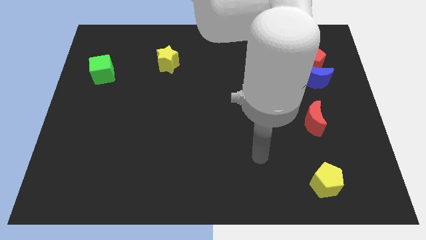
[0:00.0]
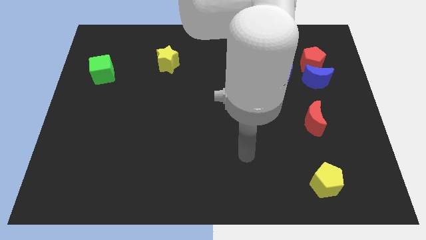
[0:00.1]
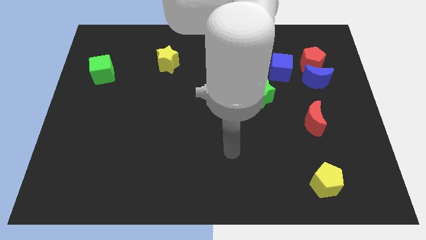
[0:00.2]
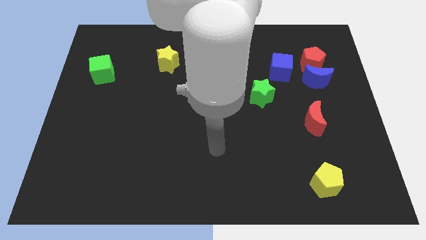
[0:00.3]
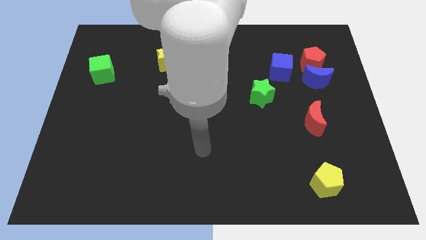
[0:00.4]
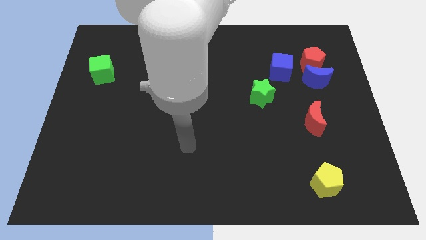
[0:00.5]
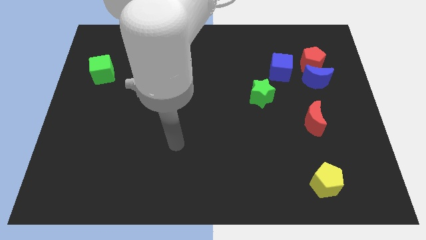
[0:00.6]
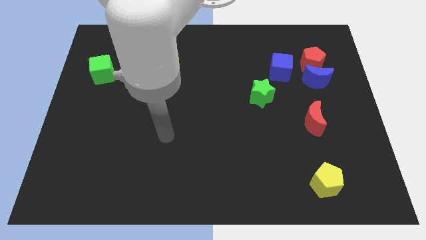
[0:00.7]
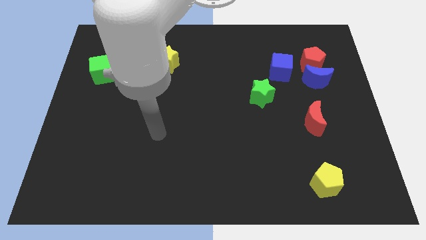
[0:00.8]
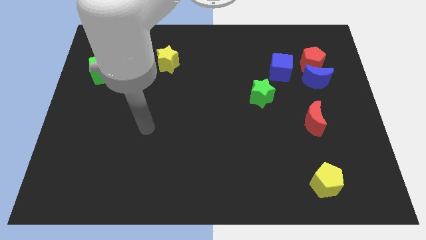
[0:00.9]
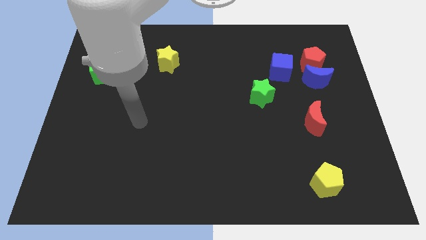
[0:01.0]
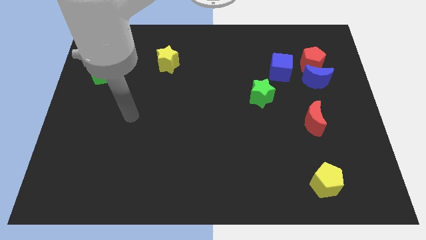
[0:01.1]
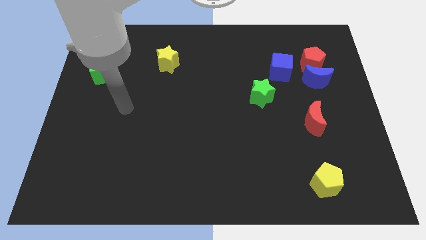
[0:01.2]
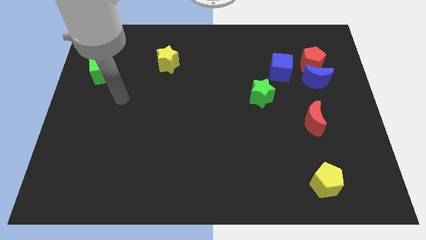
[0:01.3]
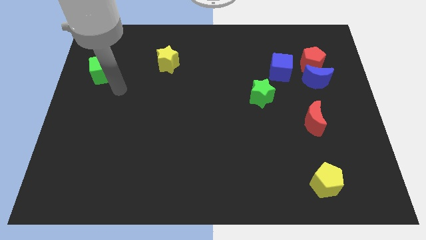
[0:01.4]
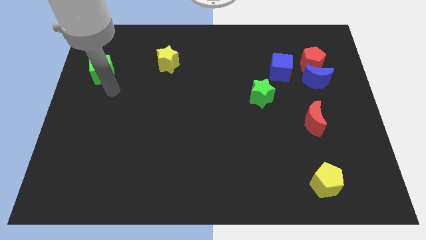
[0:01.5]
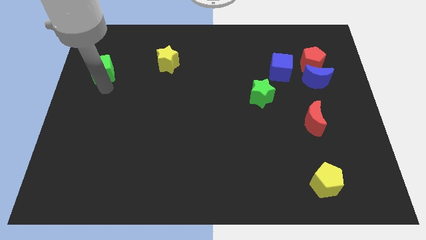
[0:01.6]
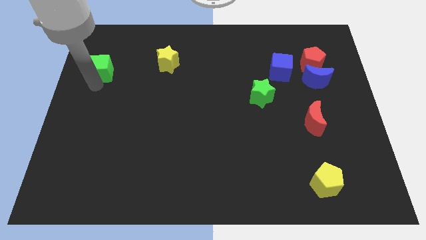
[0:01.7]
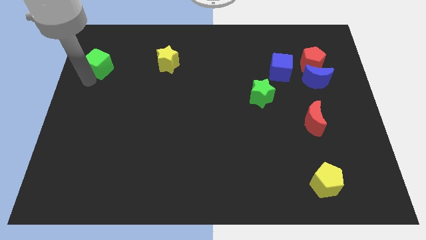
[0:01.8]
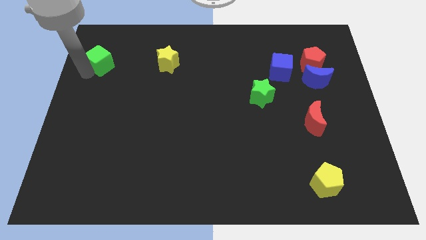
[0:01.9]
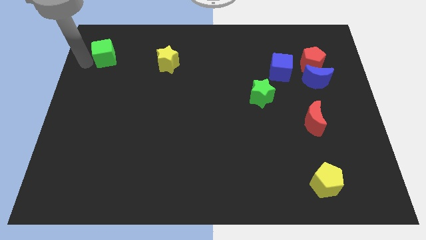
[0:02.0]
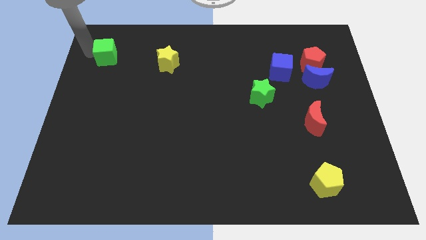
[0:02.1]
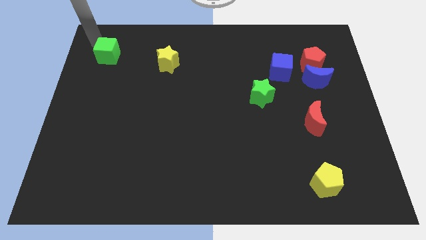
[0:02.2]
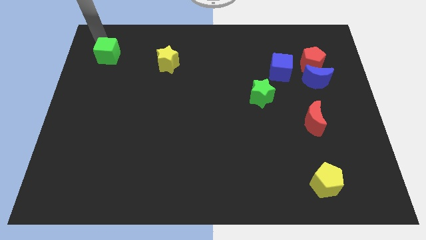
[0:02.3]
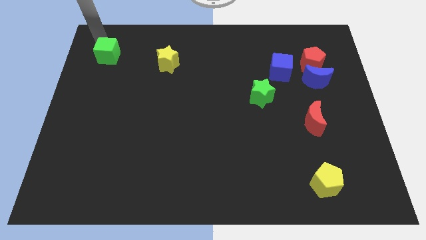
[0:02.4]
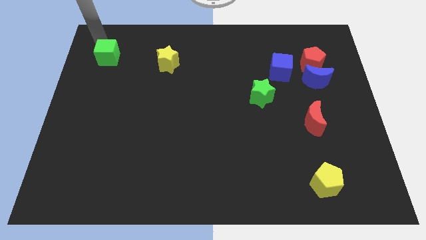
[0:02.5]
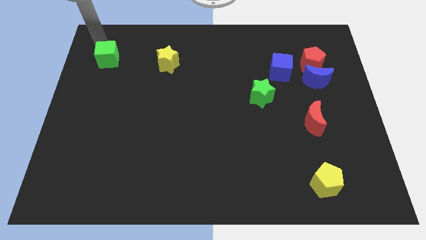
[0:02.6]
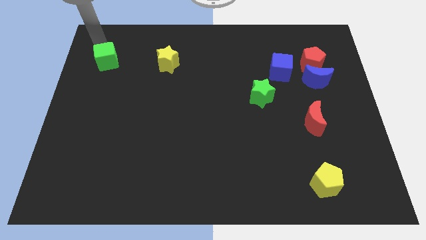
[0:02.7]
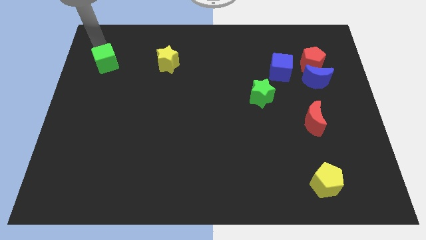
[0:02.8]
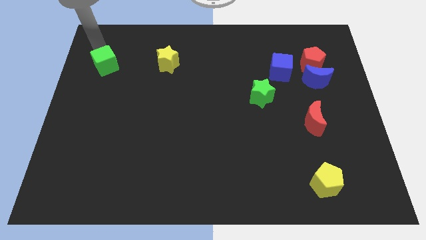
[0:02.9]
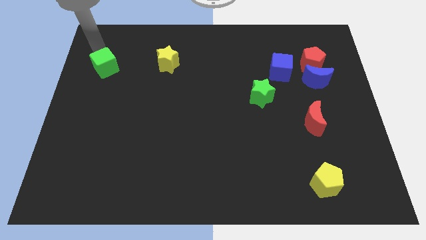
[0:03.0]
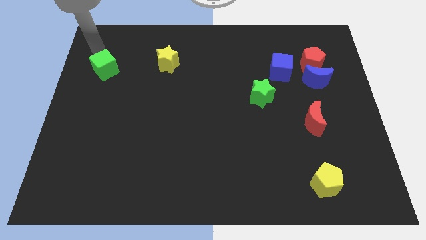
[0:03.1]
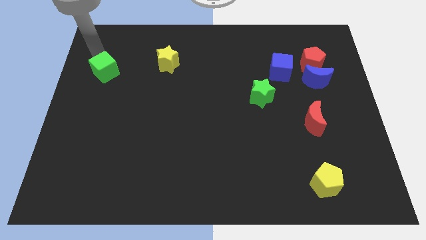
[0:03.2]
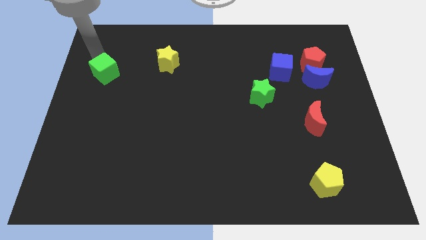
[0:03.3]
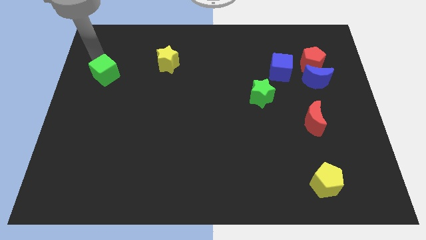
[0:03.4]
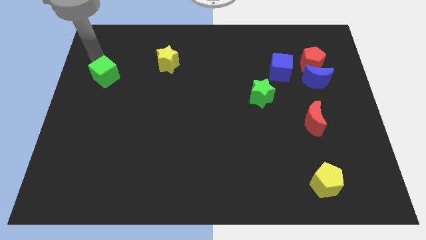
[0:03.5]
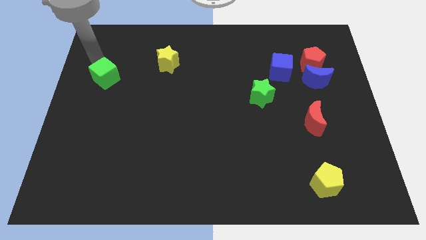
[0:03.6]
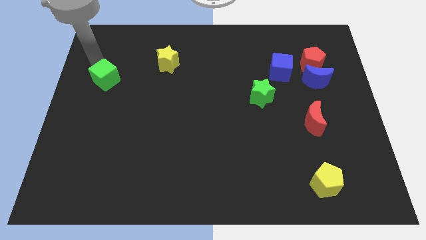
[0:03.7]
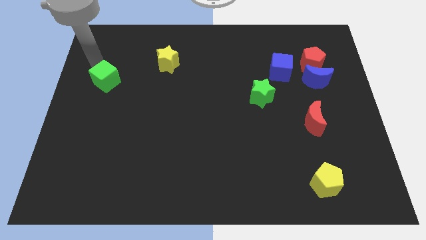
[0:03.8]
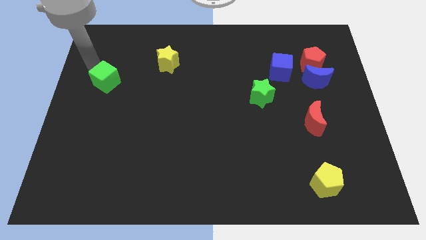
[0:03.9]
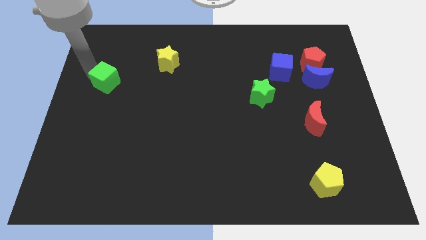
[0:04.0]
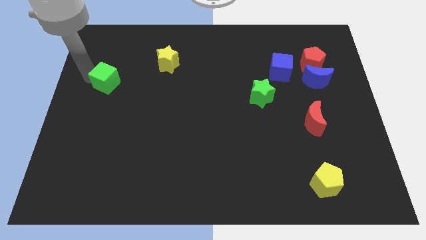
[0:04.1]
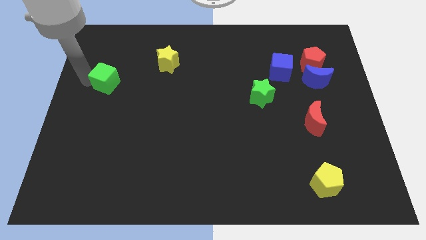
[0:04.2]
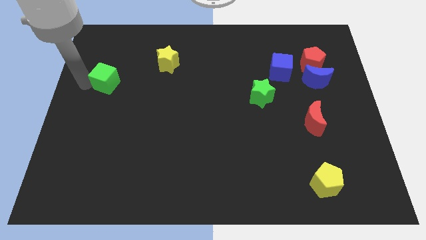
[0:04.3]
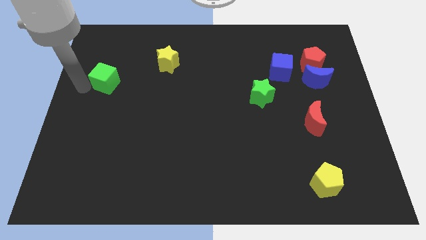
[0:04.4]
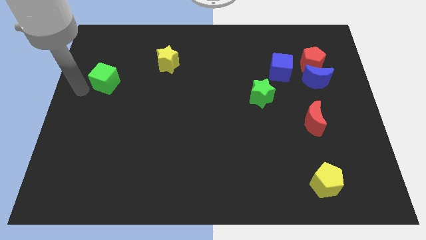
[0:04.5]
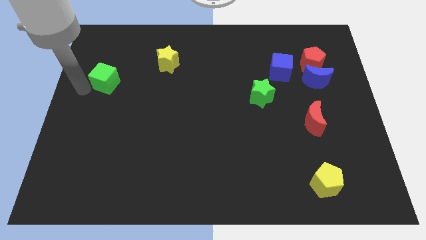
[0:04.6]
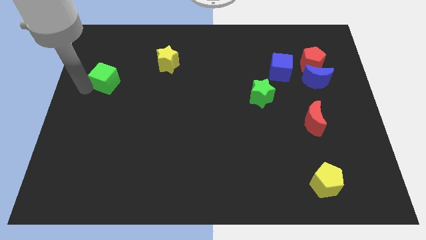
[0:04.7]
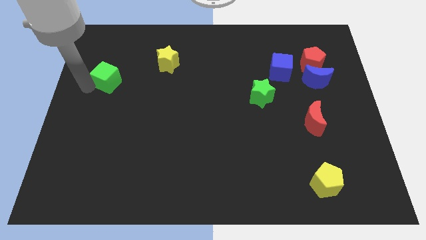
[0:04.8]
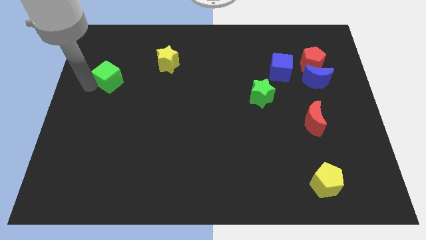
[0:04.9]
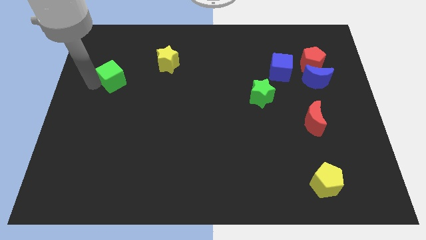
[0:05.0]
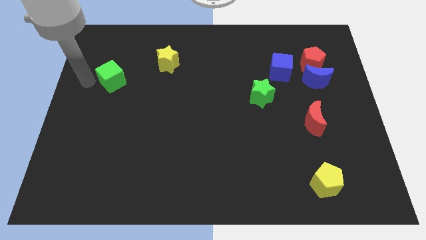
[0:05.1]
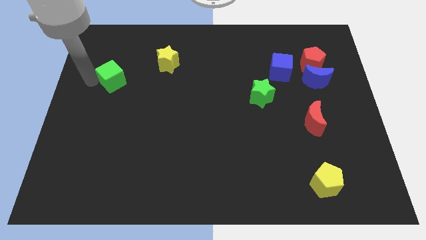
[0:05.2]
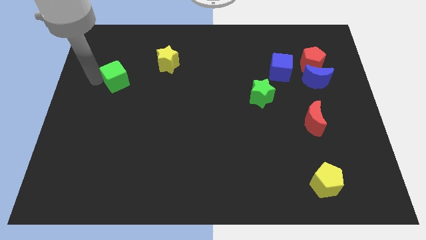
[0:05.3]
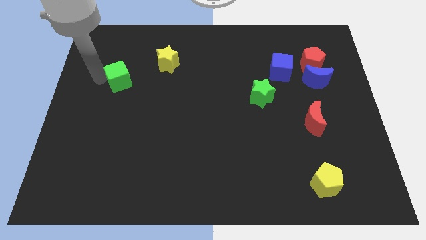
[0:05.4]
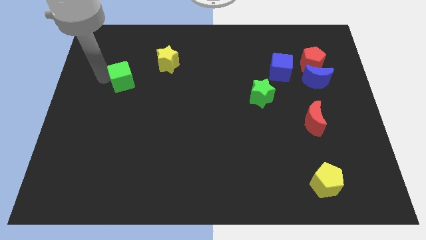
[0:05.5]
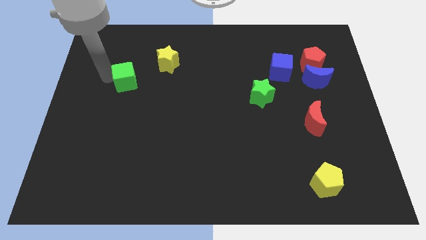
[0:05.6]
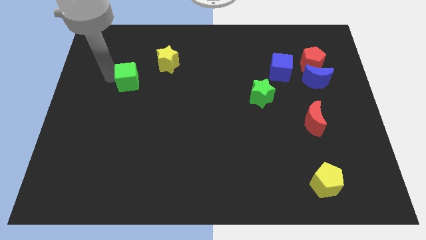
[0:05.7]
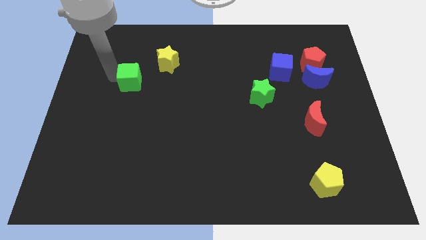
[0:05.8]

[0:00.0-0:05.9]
slide the green cube right somewhat

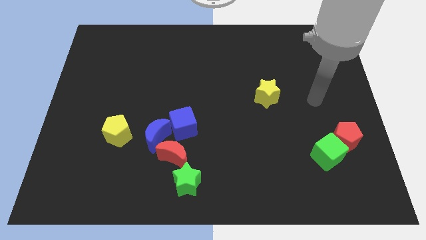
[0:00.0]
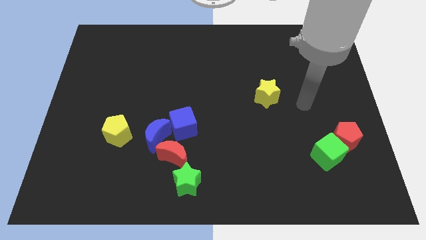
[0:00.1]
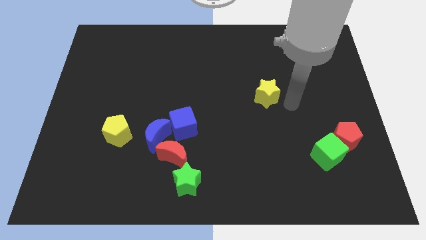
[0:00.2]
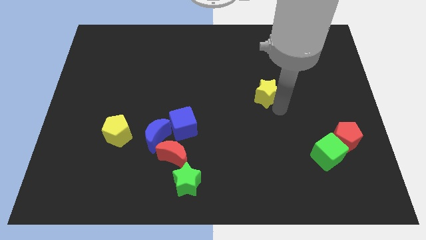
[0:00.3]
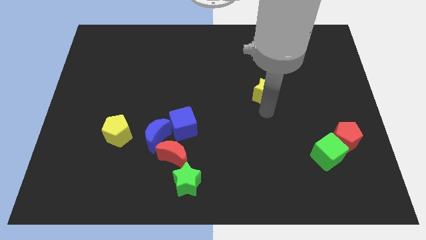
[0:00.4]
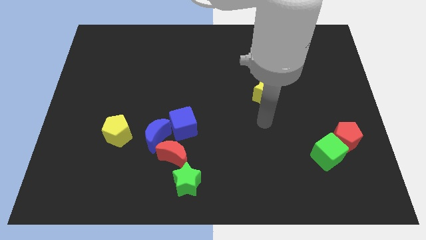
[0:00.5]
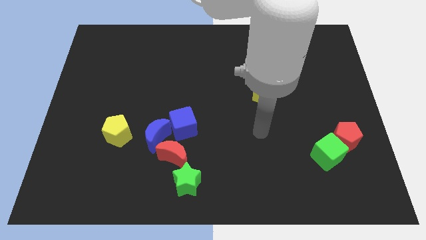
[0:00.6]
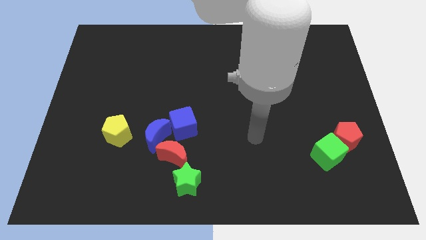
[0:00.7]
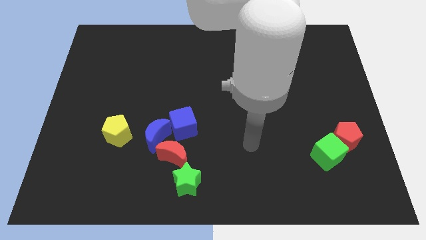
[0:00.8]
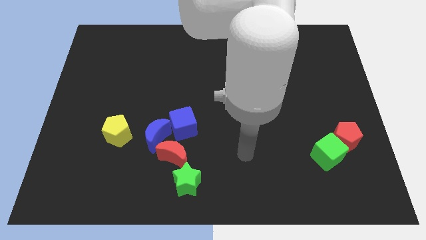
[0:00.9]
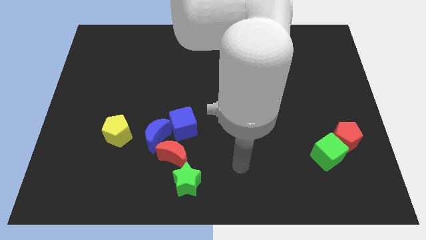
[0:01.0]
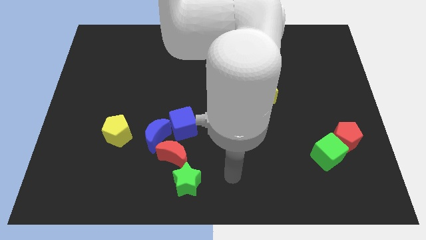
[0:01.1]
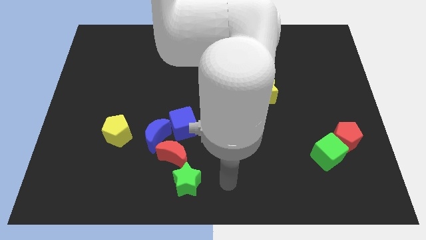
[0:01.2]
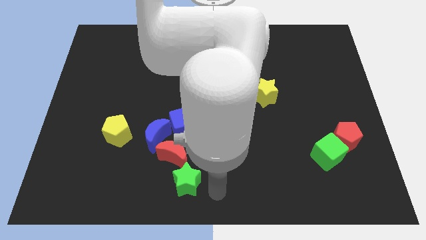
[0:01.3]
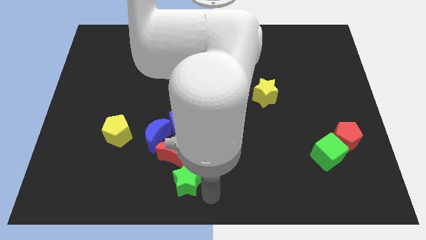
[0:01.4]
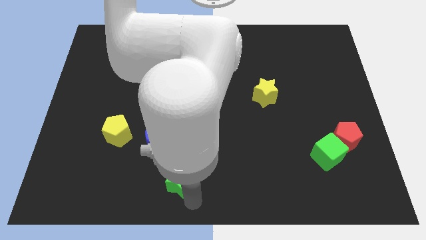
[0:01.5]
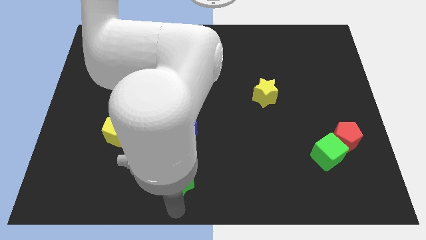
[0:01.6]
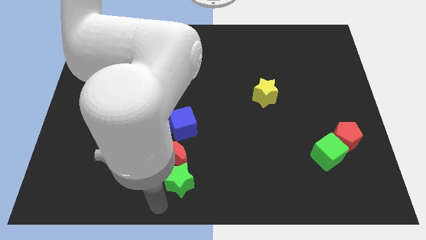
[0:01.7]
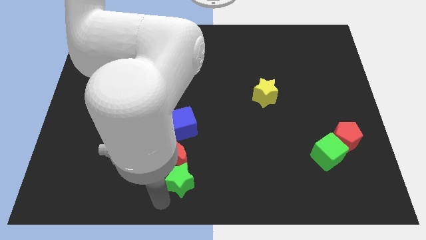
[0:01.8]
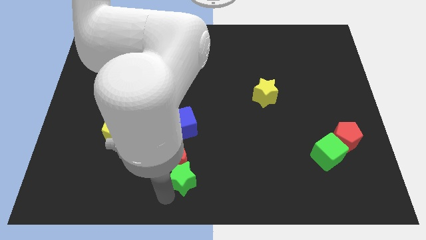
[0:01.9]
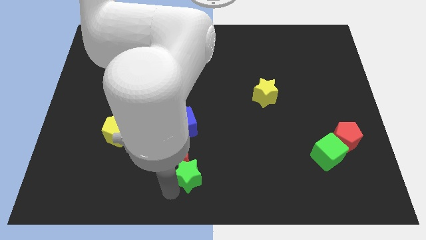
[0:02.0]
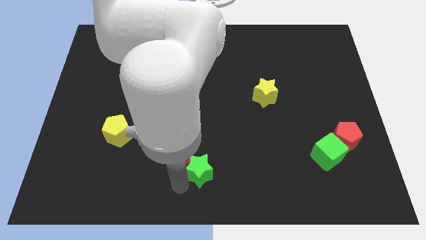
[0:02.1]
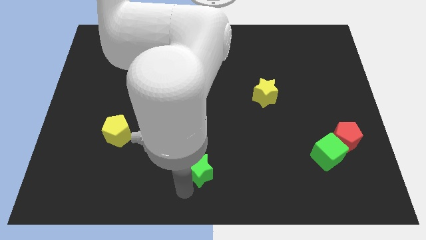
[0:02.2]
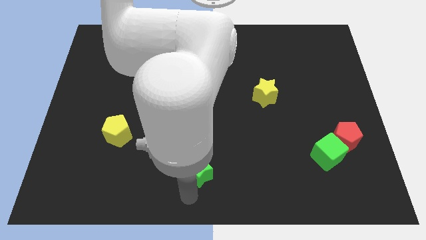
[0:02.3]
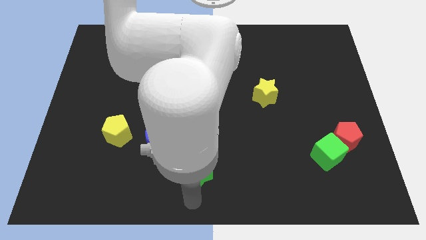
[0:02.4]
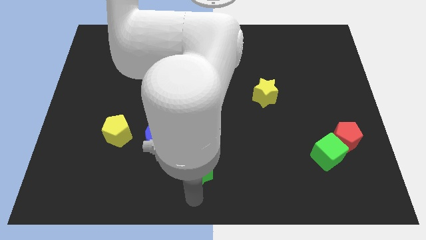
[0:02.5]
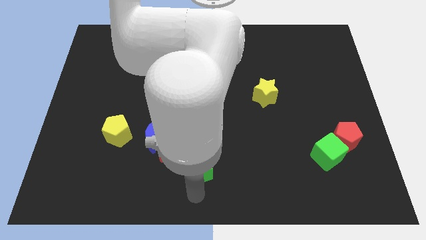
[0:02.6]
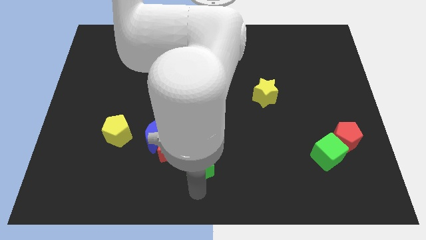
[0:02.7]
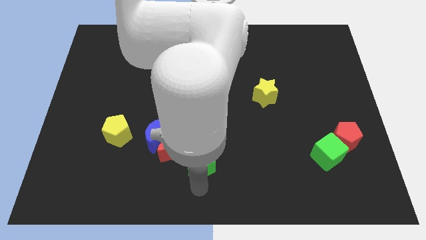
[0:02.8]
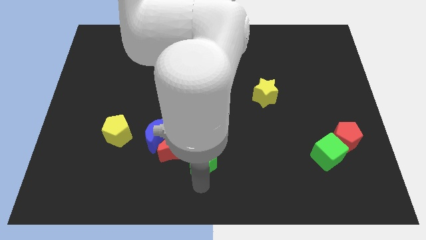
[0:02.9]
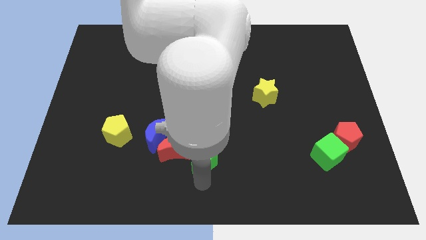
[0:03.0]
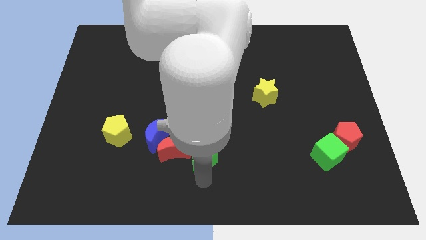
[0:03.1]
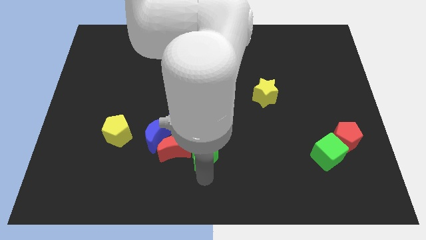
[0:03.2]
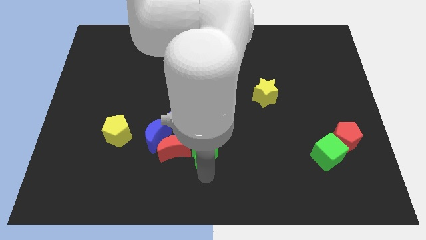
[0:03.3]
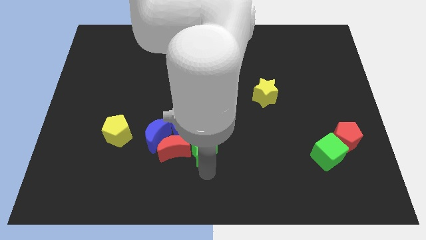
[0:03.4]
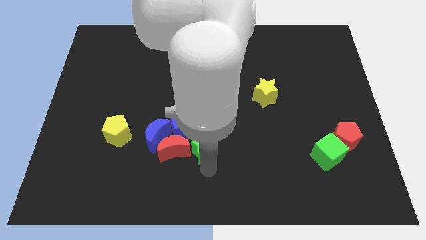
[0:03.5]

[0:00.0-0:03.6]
slide the green star up slightly
